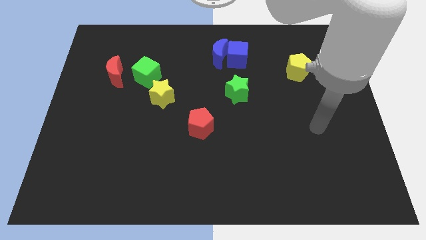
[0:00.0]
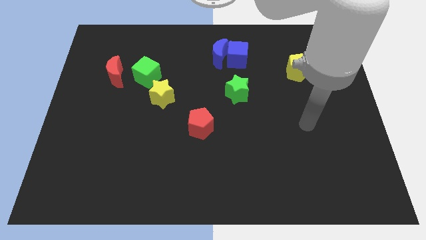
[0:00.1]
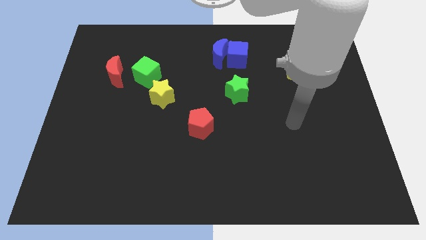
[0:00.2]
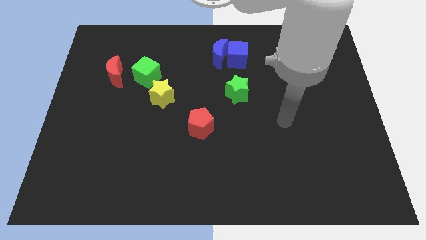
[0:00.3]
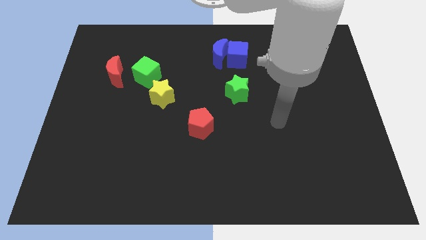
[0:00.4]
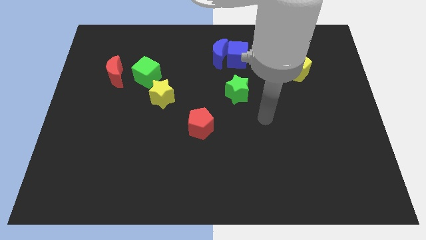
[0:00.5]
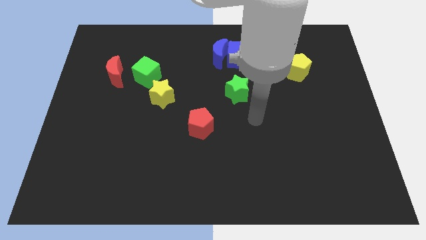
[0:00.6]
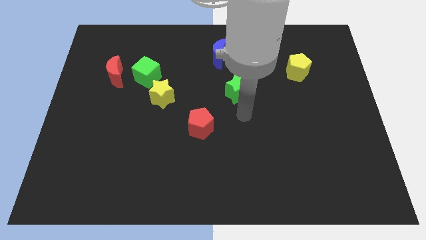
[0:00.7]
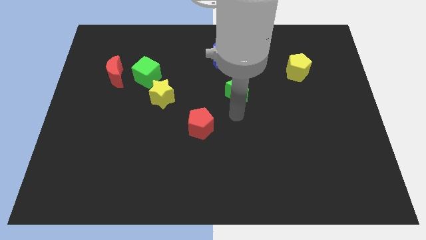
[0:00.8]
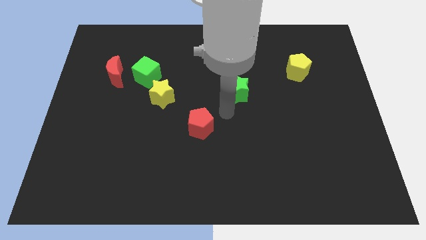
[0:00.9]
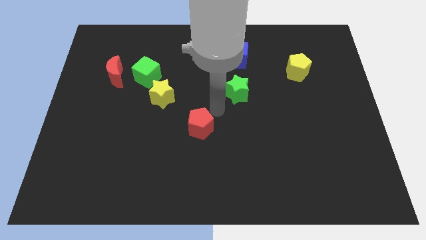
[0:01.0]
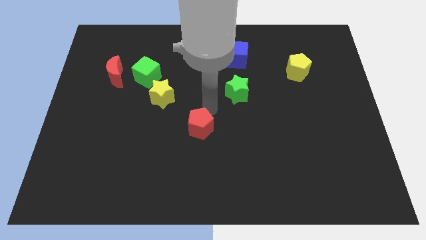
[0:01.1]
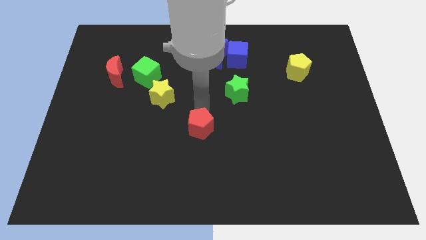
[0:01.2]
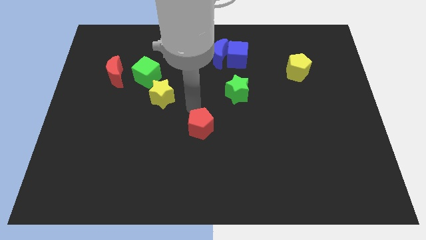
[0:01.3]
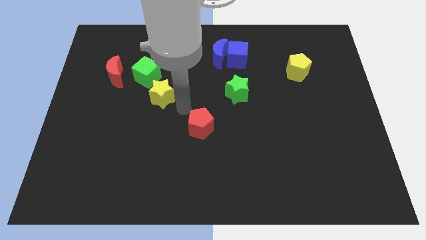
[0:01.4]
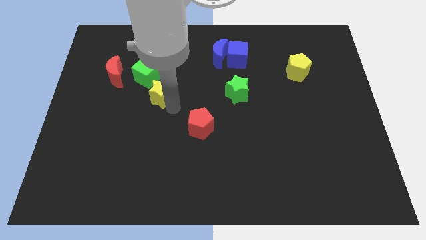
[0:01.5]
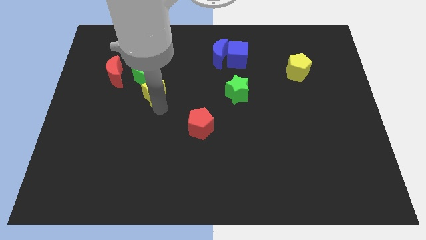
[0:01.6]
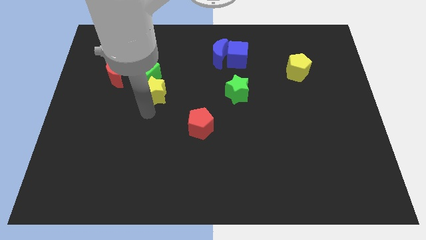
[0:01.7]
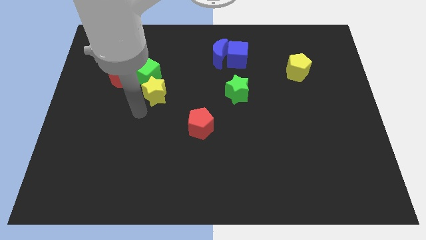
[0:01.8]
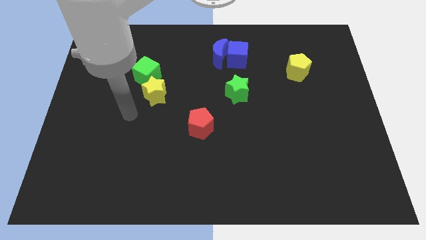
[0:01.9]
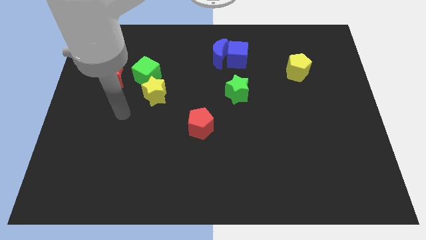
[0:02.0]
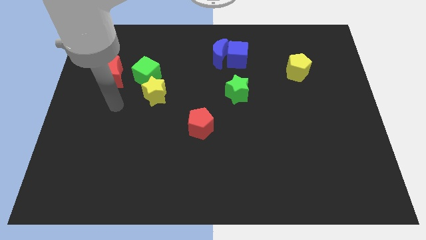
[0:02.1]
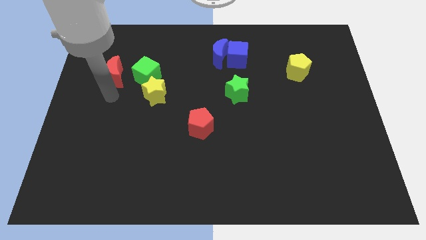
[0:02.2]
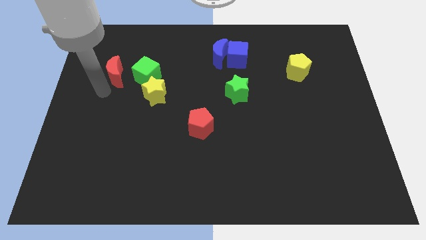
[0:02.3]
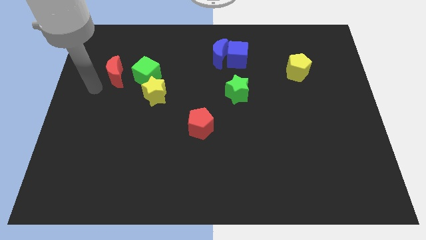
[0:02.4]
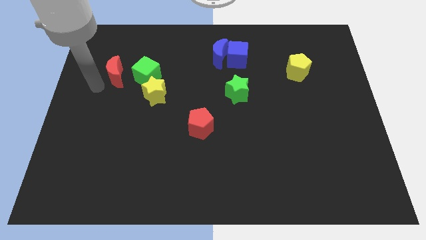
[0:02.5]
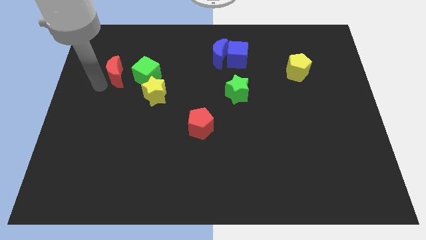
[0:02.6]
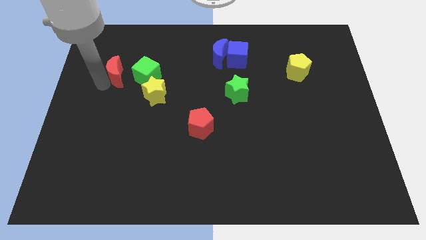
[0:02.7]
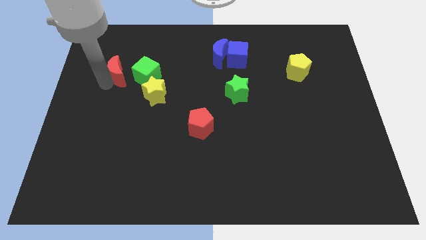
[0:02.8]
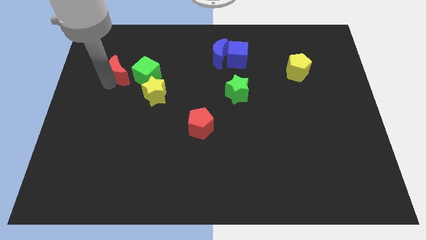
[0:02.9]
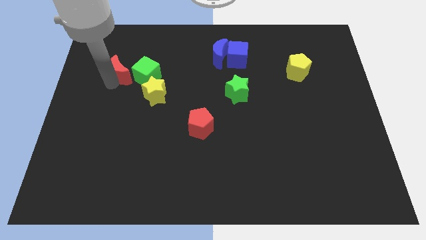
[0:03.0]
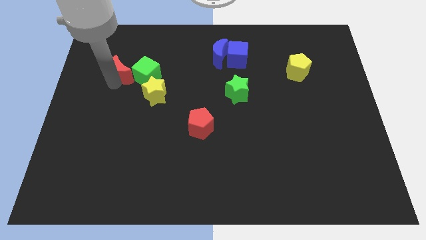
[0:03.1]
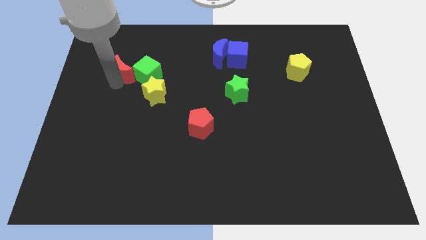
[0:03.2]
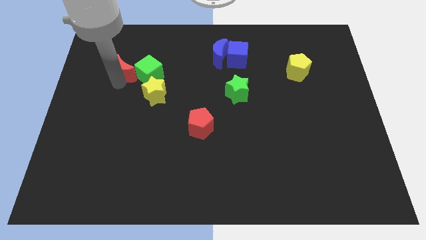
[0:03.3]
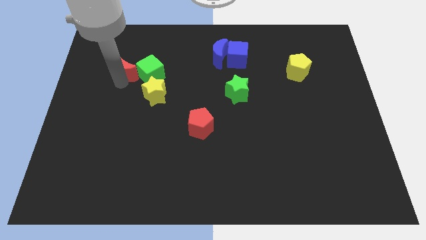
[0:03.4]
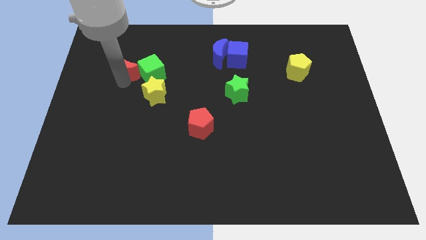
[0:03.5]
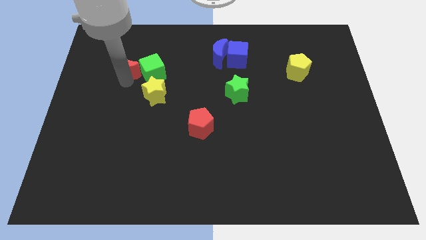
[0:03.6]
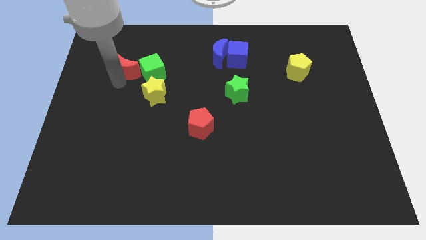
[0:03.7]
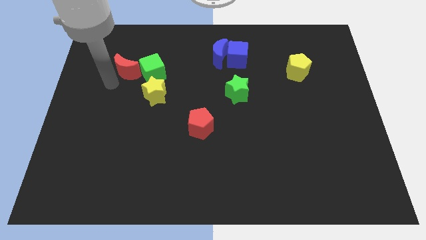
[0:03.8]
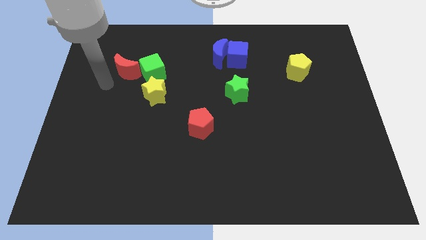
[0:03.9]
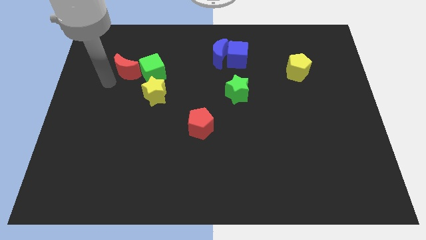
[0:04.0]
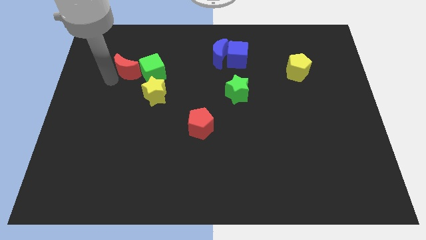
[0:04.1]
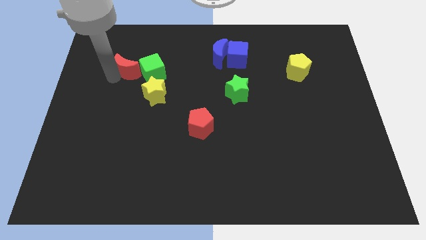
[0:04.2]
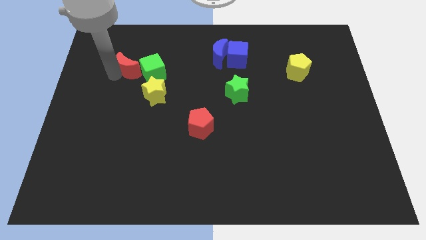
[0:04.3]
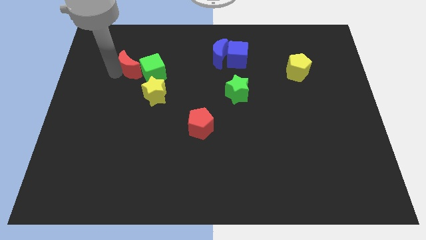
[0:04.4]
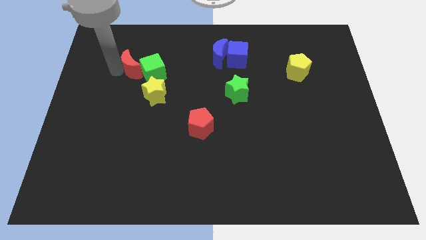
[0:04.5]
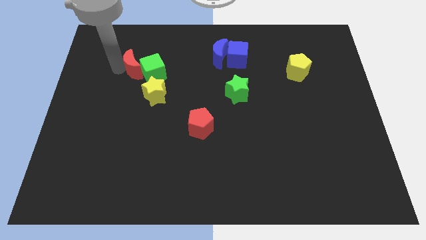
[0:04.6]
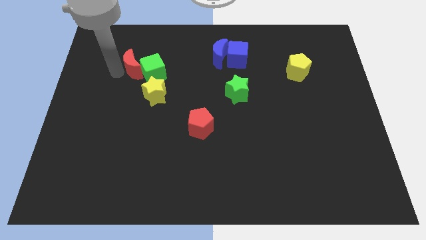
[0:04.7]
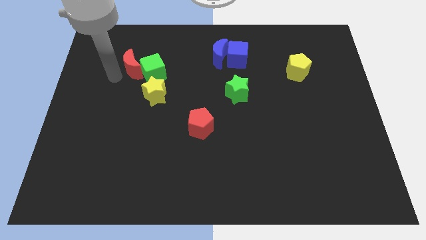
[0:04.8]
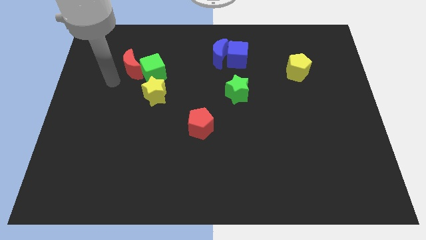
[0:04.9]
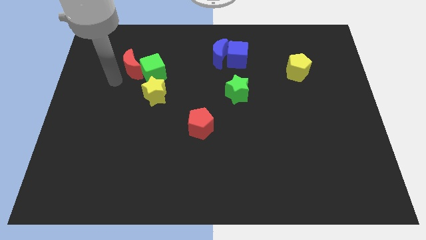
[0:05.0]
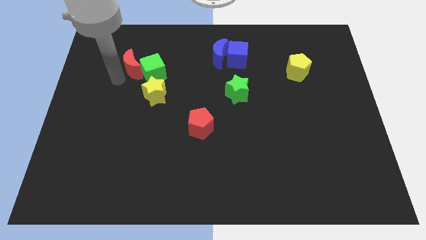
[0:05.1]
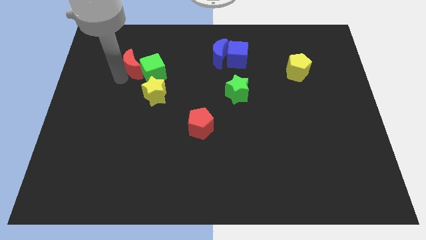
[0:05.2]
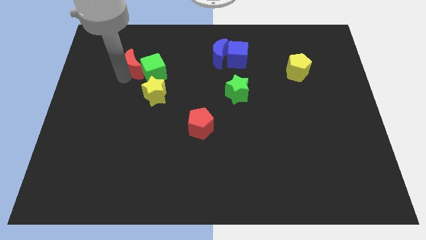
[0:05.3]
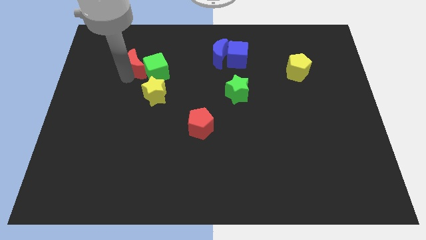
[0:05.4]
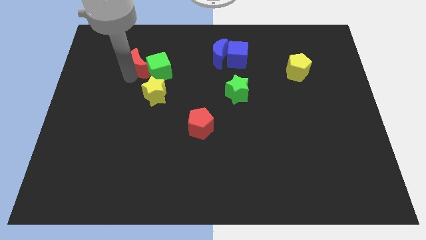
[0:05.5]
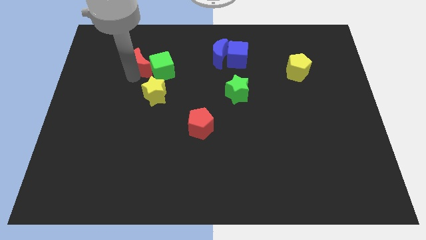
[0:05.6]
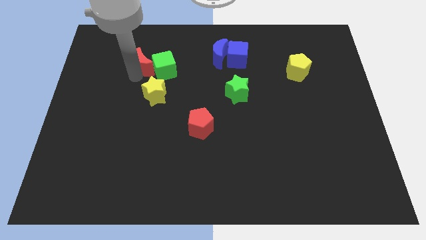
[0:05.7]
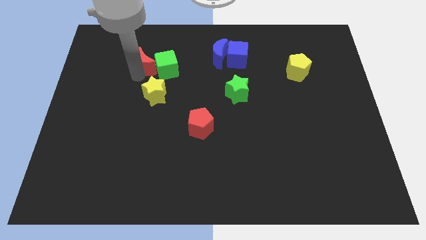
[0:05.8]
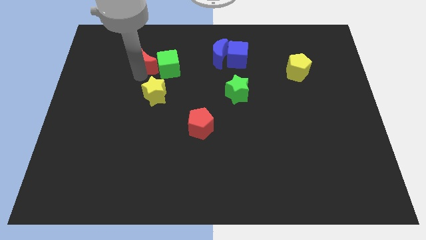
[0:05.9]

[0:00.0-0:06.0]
move the red moon a little right

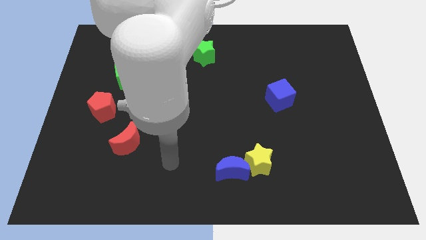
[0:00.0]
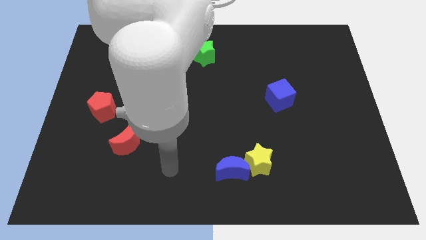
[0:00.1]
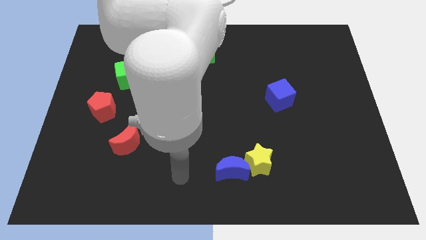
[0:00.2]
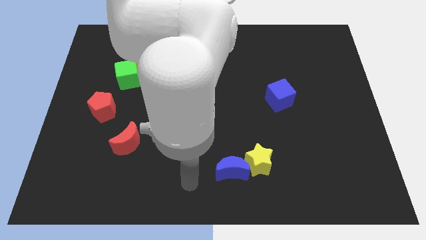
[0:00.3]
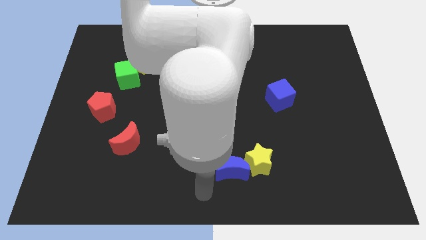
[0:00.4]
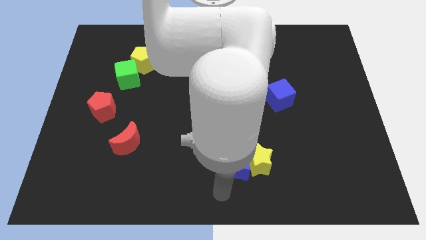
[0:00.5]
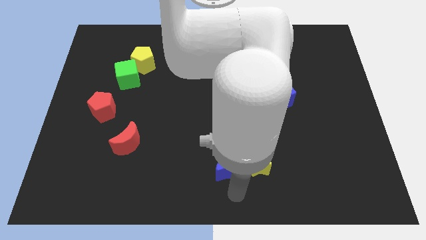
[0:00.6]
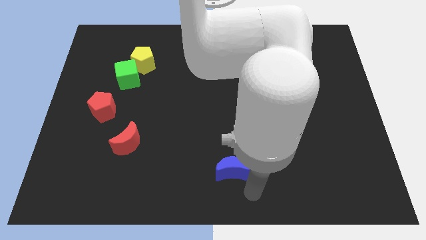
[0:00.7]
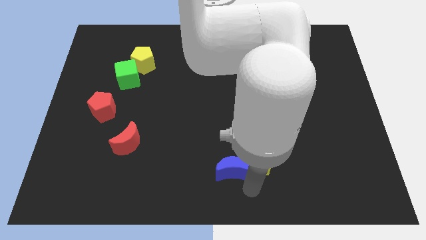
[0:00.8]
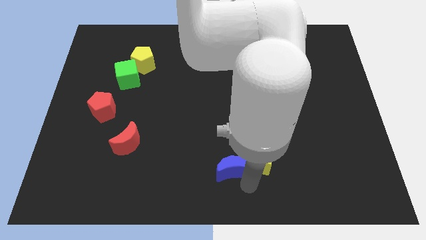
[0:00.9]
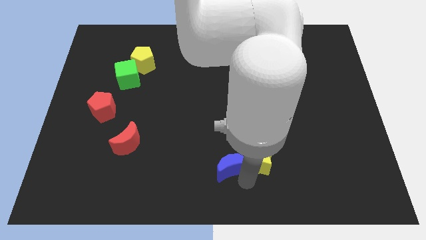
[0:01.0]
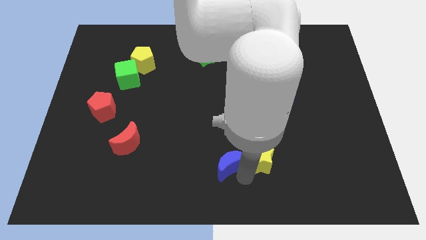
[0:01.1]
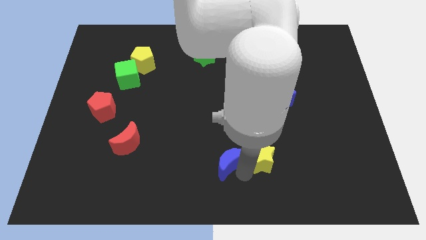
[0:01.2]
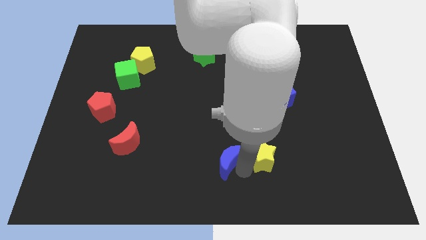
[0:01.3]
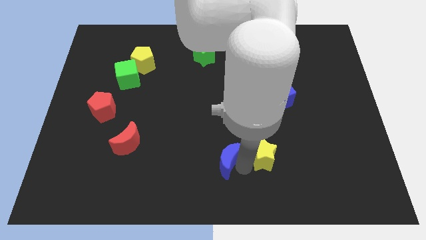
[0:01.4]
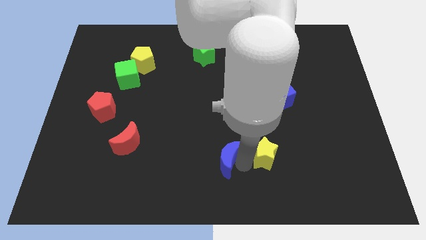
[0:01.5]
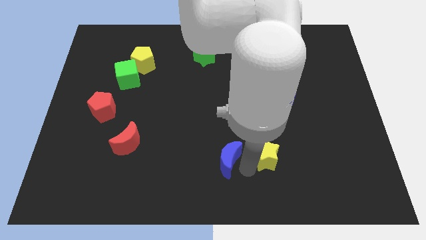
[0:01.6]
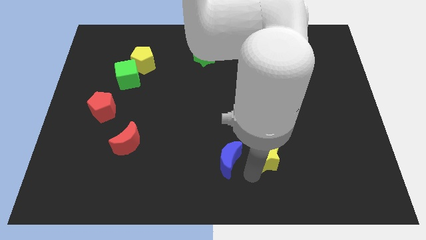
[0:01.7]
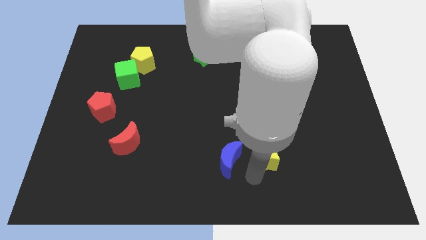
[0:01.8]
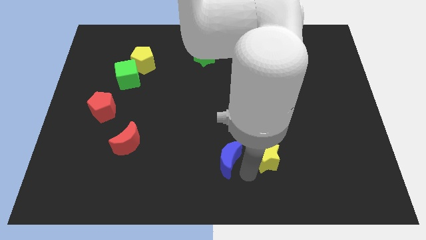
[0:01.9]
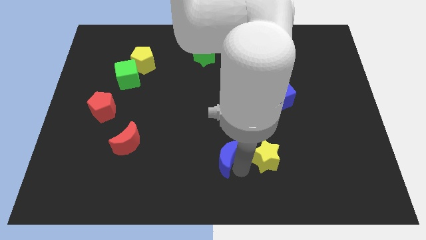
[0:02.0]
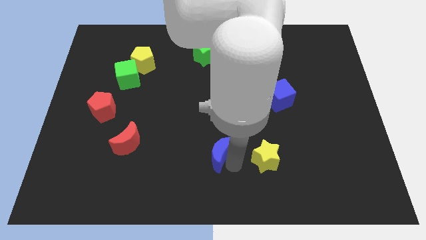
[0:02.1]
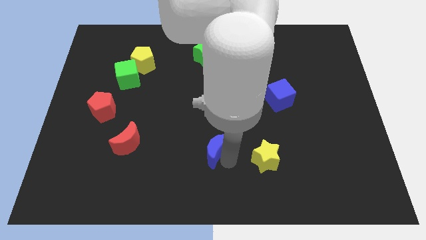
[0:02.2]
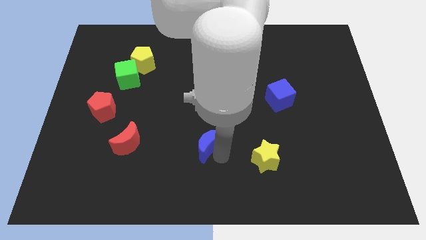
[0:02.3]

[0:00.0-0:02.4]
slightly move the blue moon up and left diagonally
